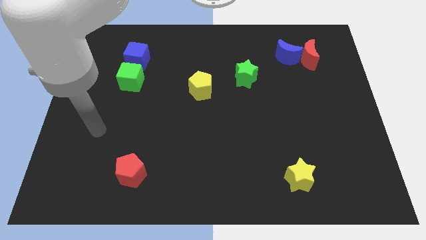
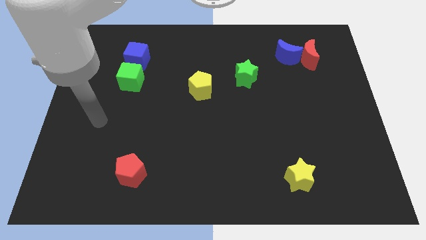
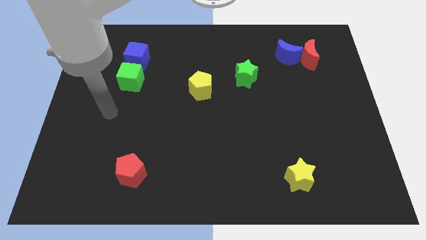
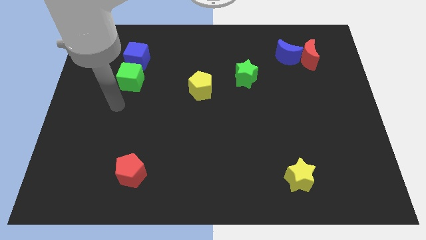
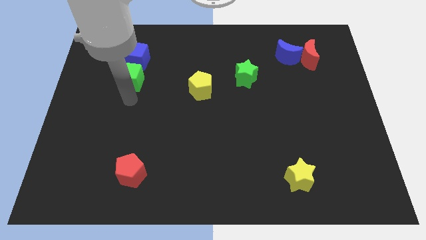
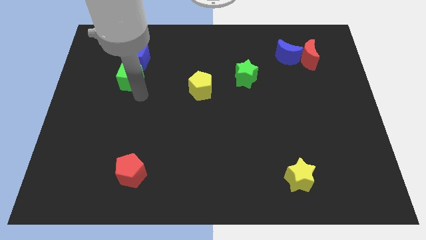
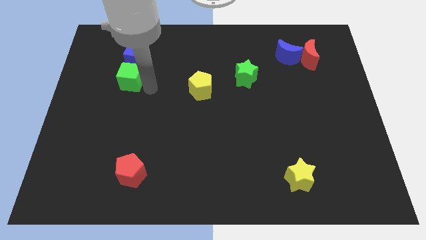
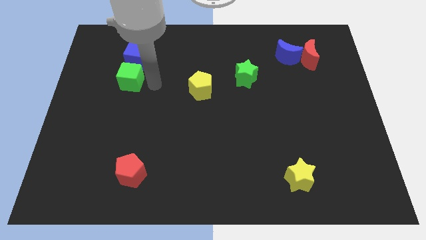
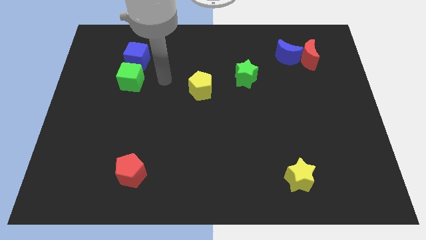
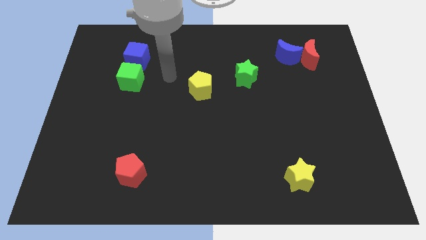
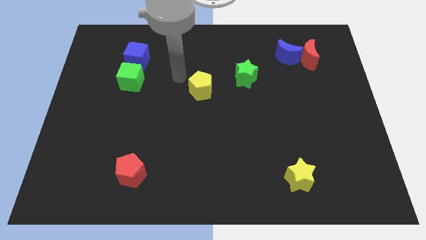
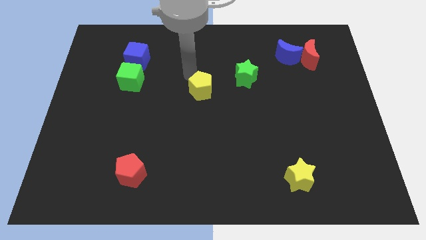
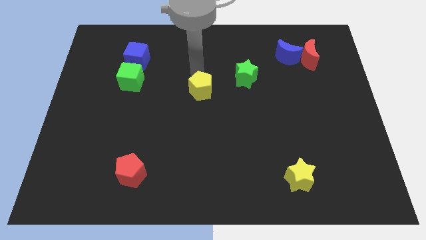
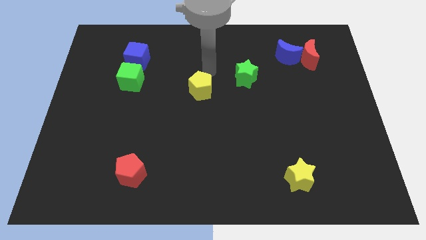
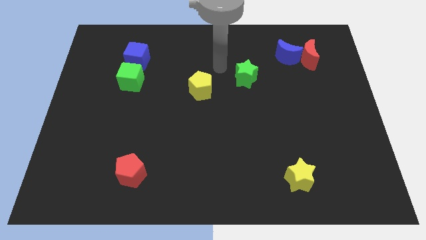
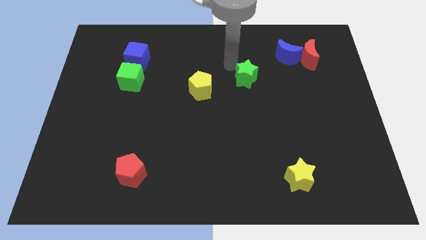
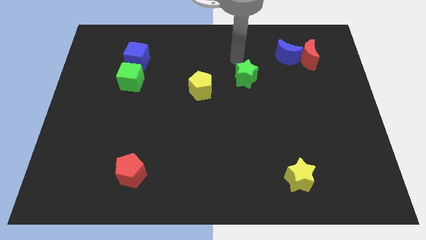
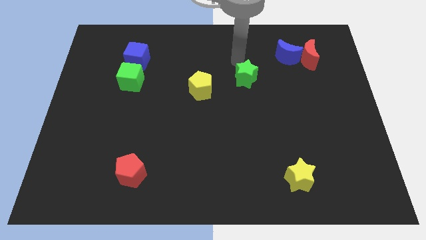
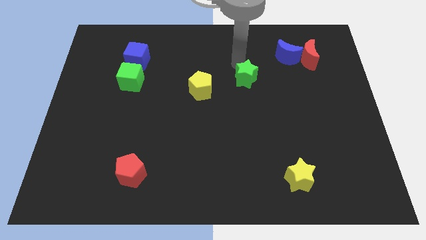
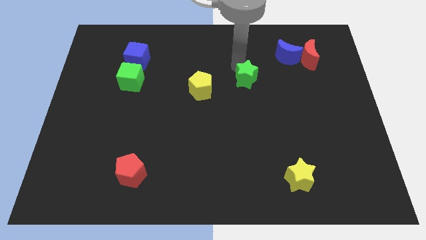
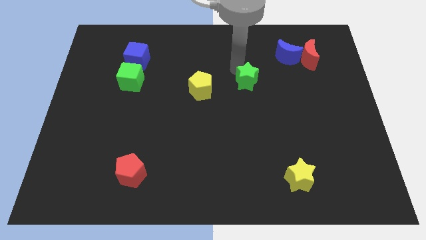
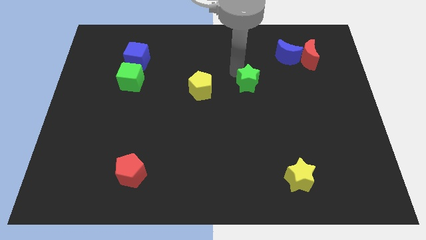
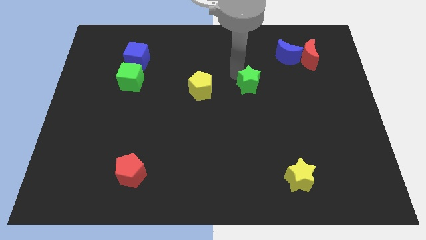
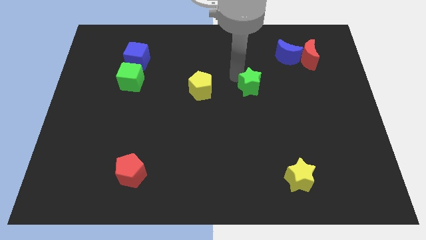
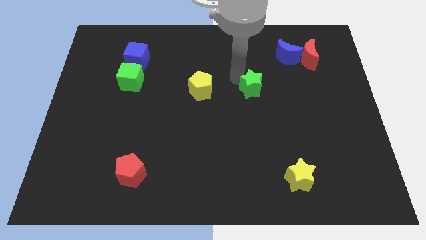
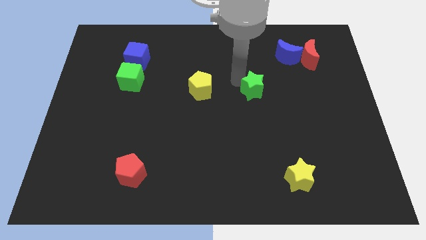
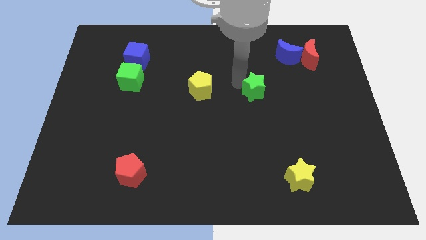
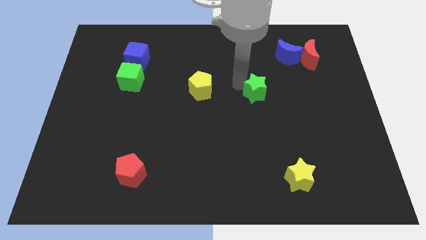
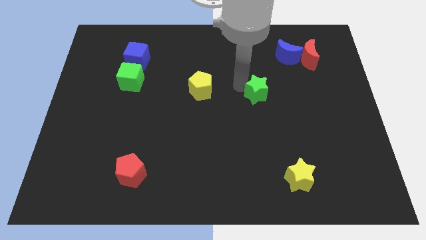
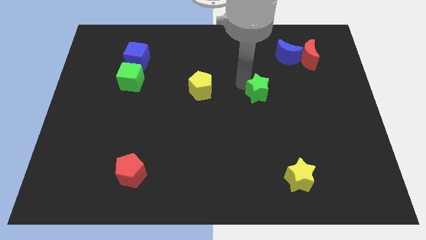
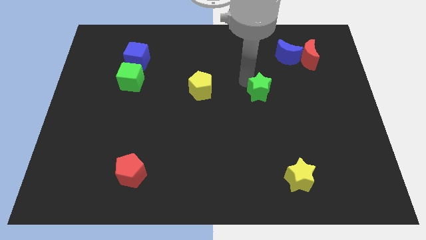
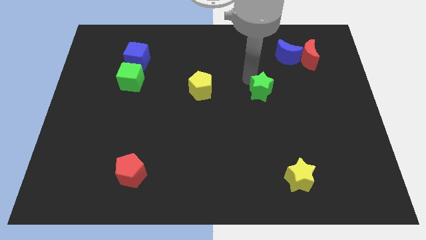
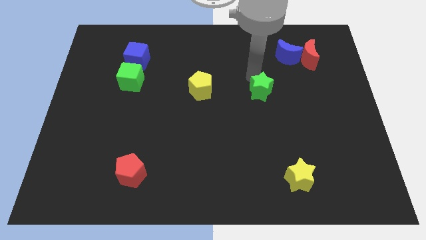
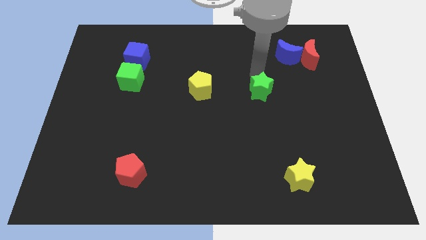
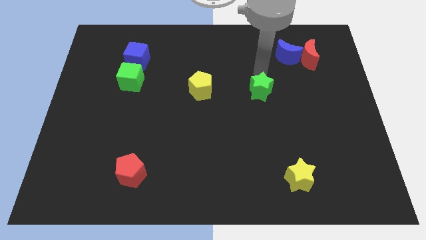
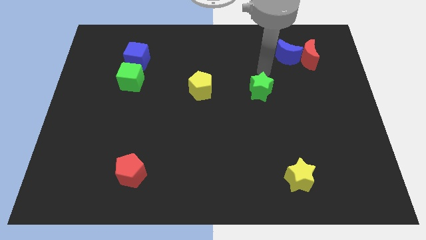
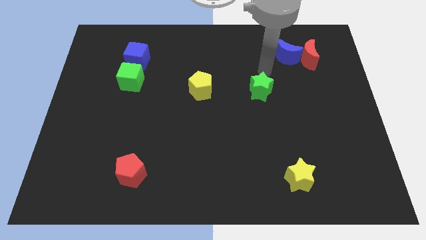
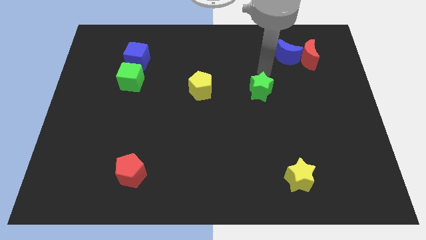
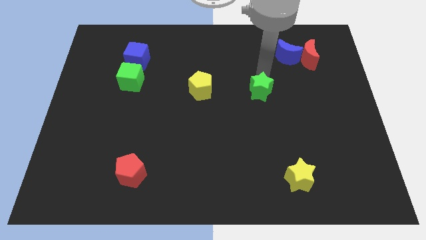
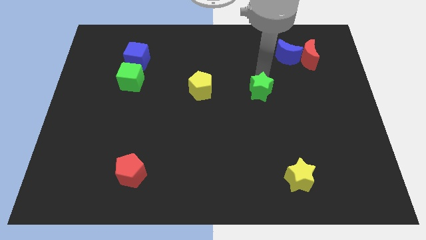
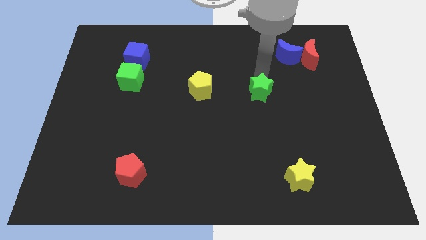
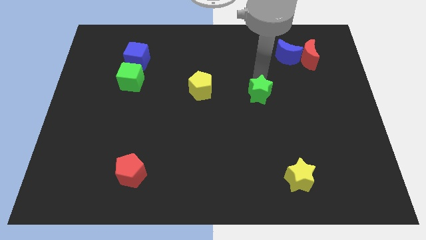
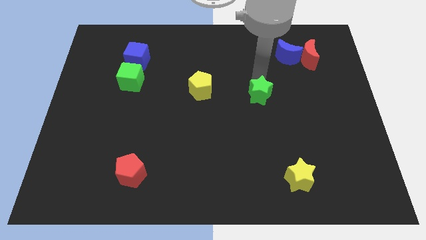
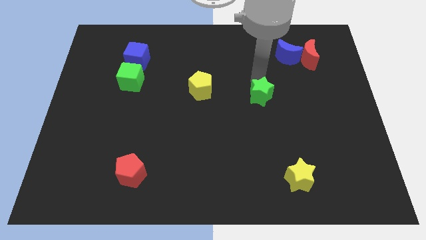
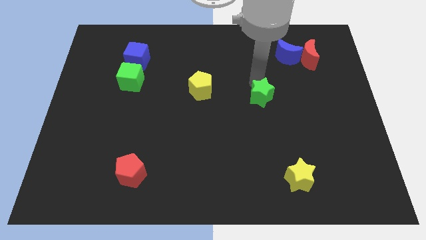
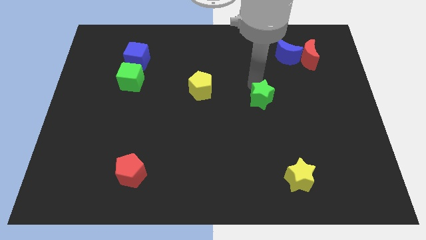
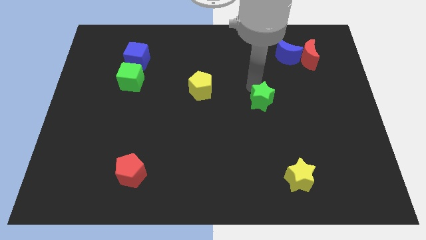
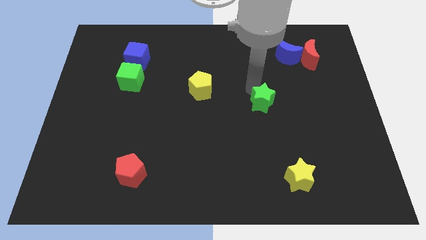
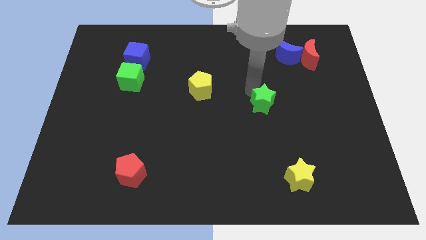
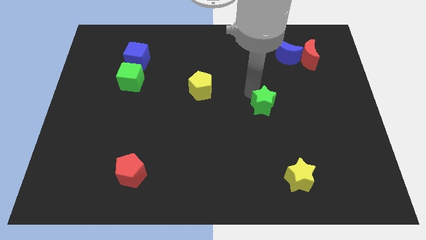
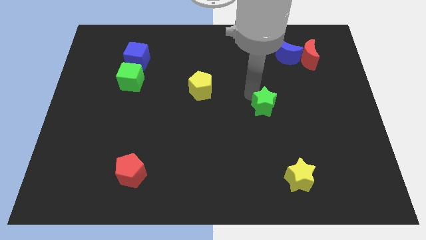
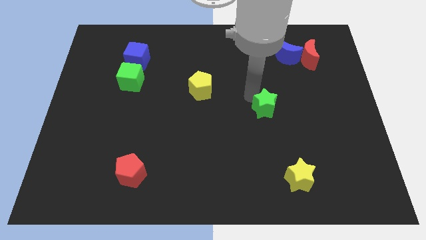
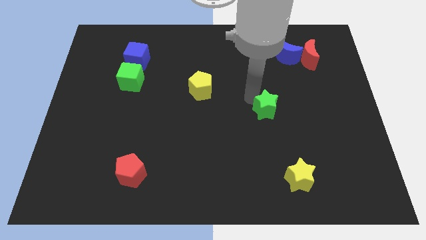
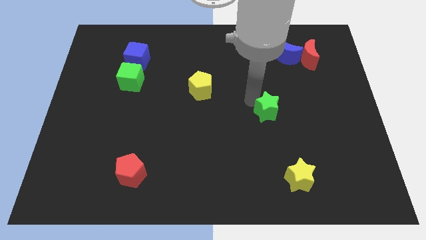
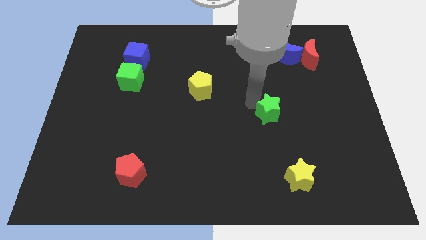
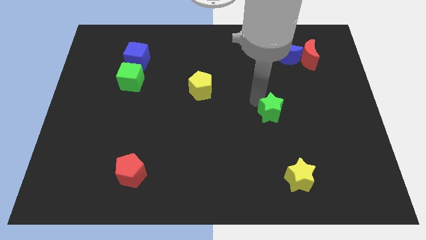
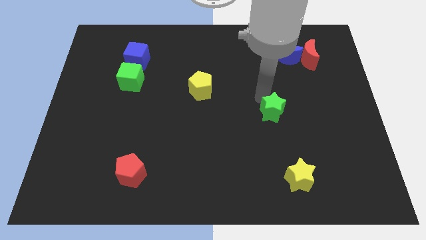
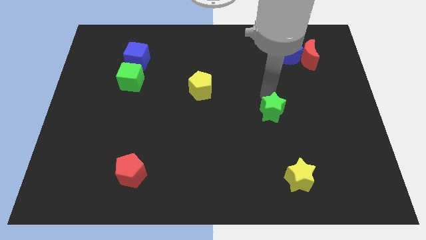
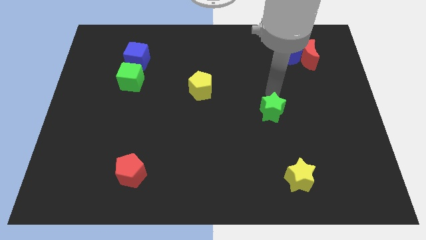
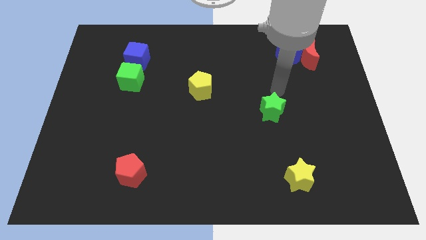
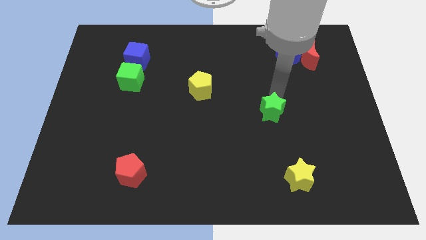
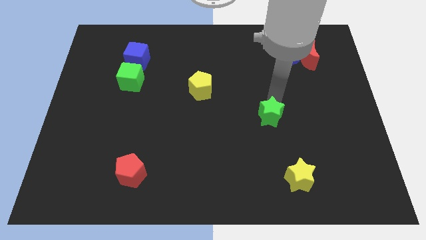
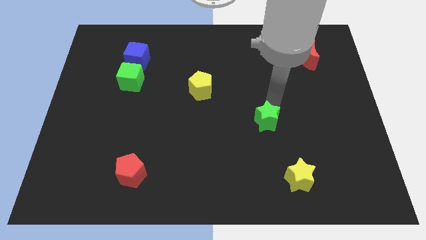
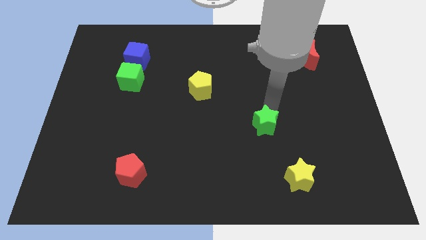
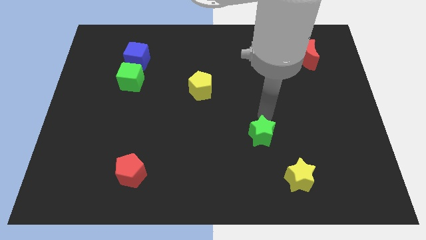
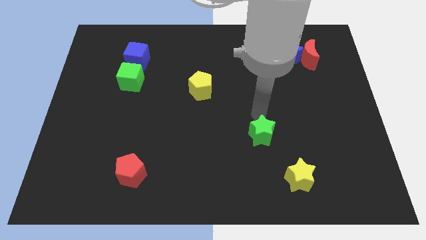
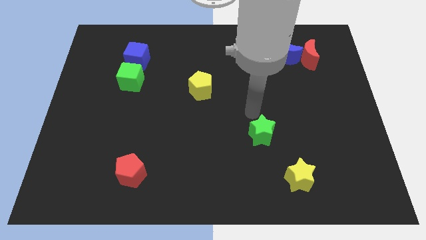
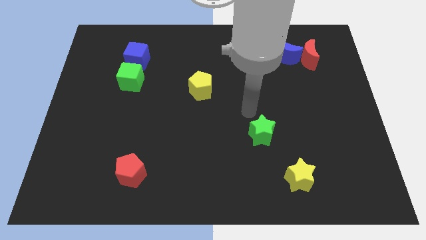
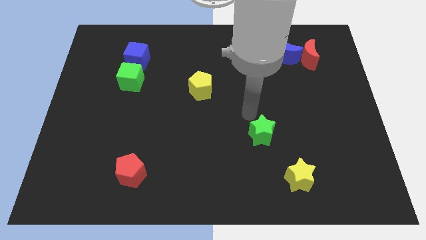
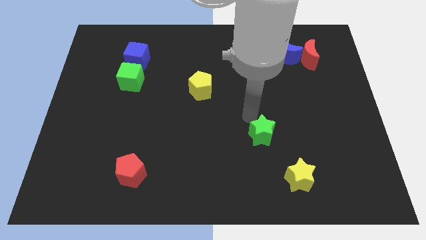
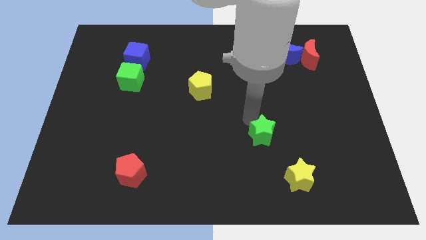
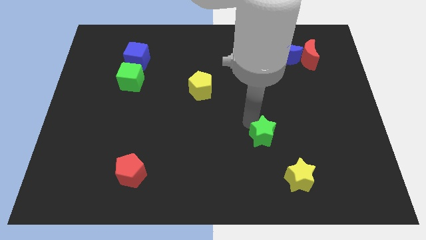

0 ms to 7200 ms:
put the green star to the top left of the yellow star

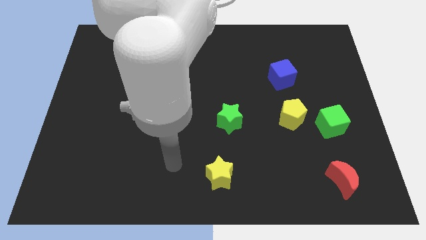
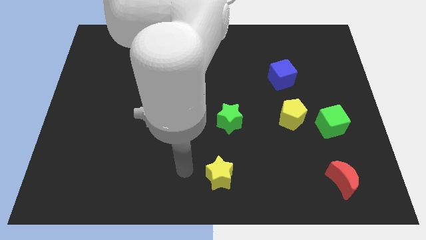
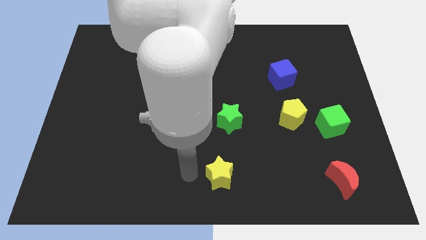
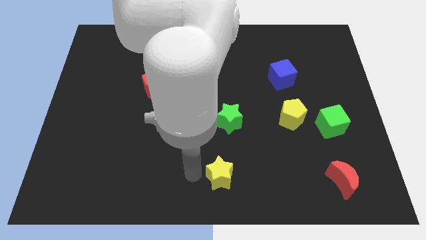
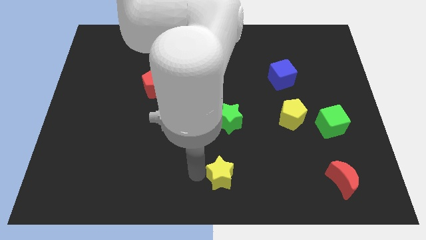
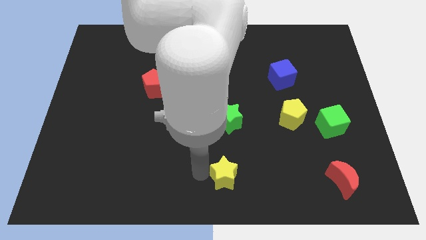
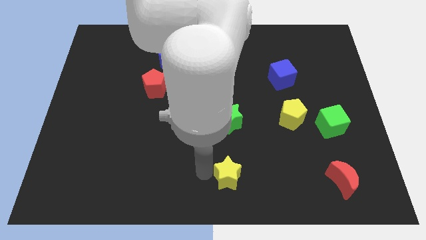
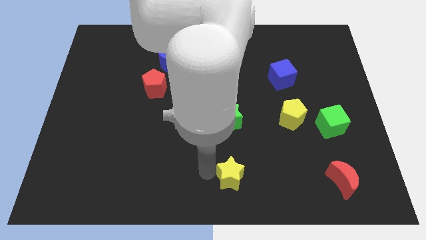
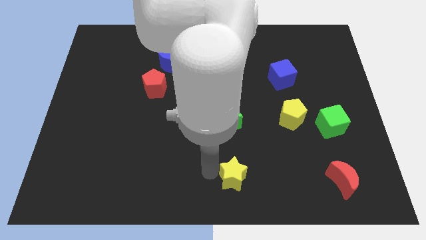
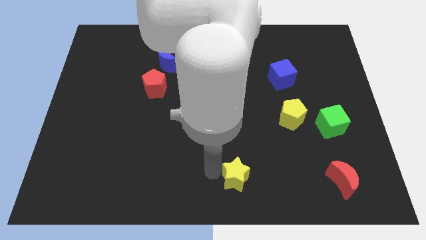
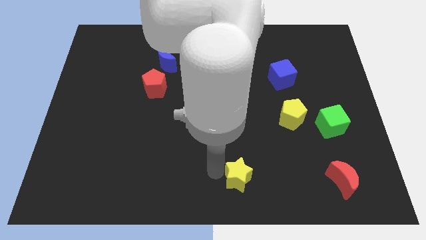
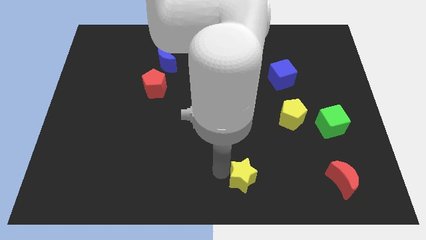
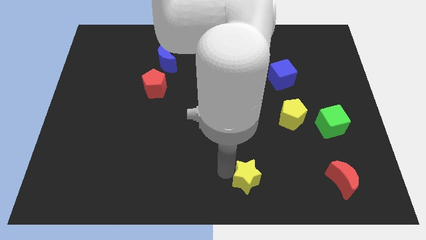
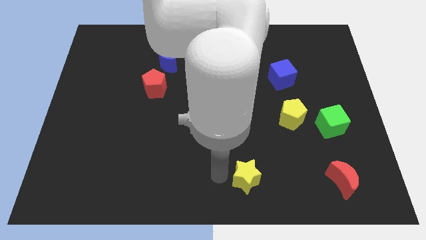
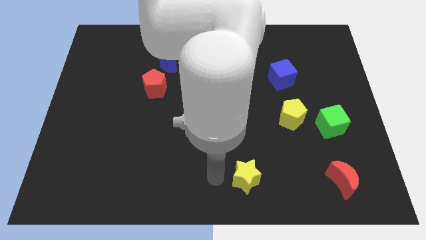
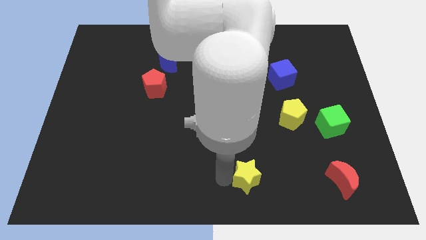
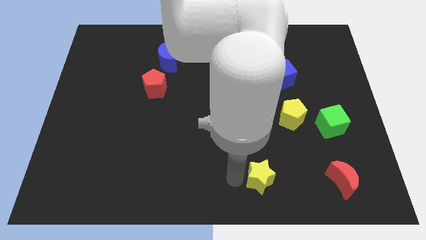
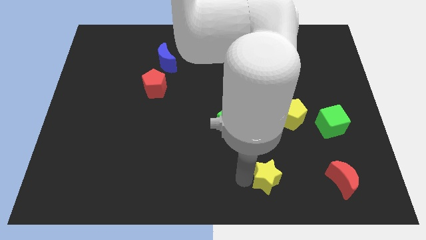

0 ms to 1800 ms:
push the yellow star to the left side of the red moon
